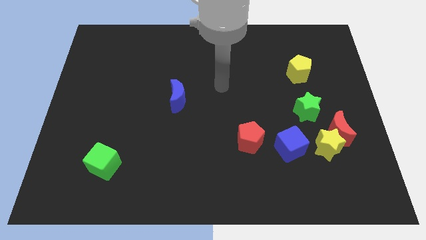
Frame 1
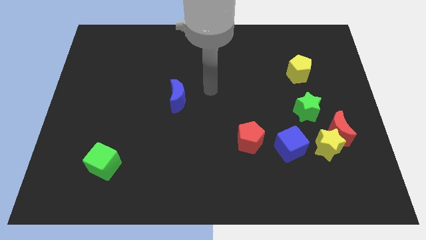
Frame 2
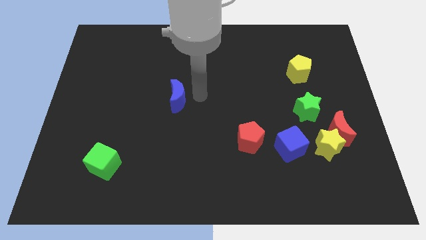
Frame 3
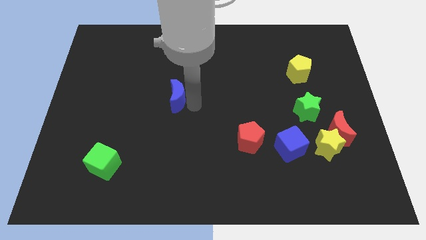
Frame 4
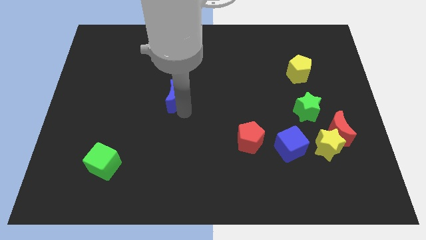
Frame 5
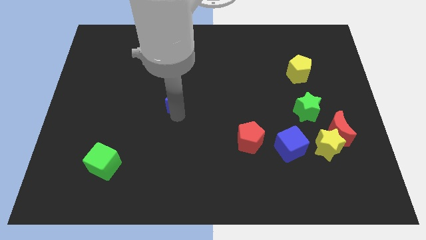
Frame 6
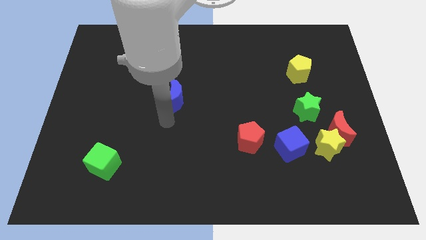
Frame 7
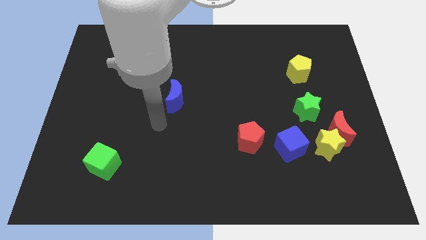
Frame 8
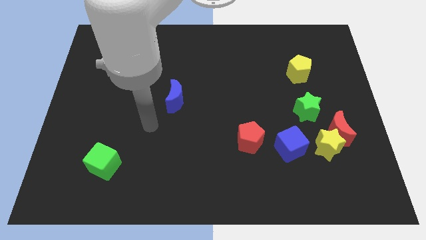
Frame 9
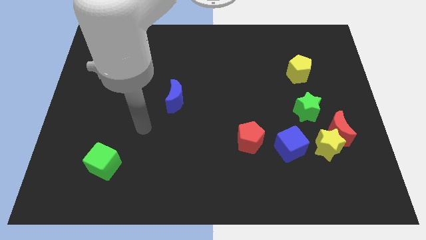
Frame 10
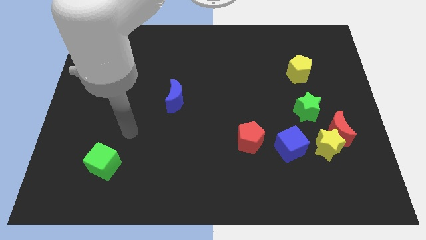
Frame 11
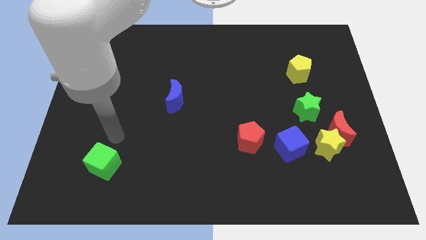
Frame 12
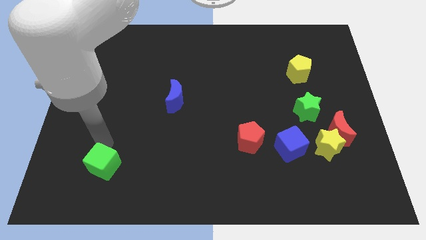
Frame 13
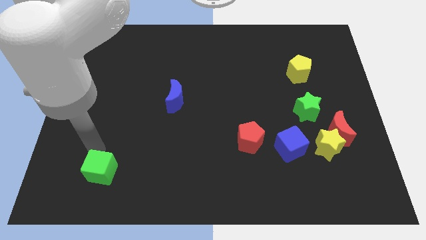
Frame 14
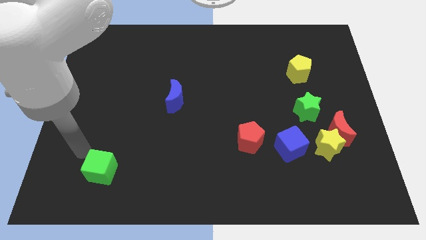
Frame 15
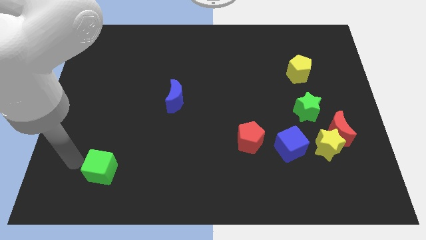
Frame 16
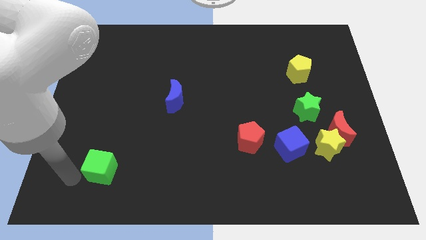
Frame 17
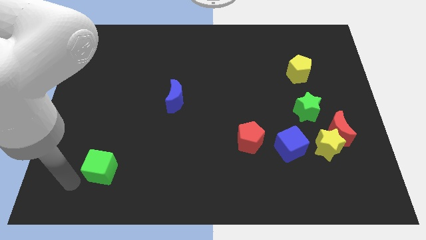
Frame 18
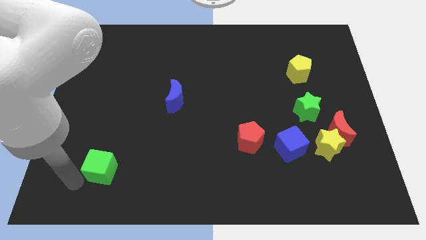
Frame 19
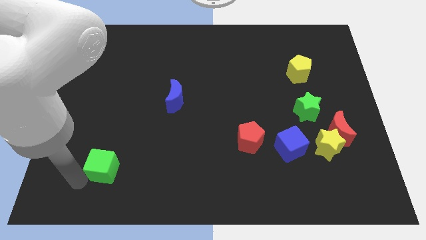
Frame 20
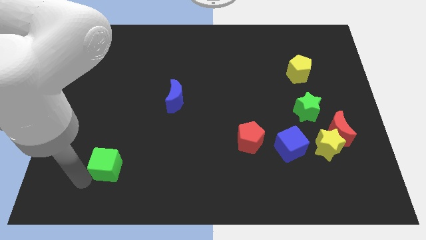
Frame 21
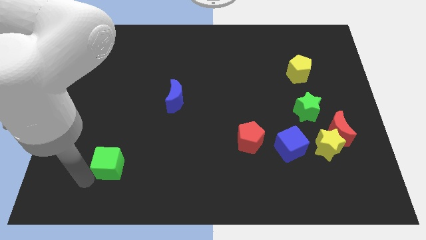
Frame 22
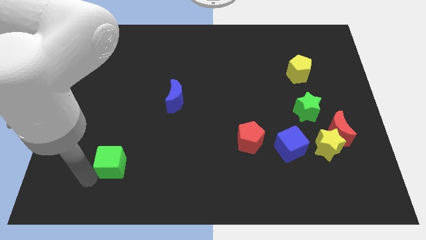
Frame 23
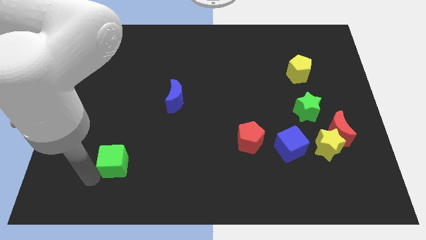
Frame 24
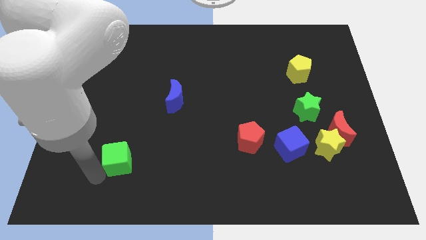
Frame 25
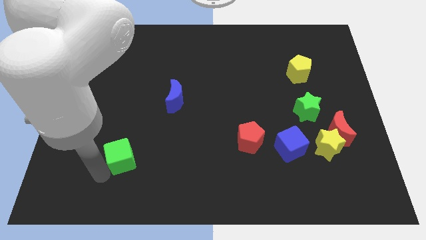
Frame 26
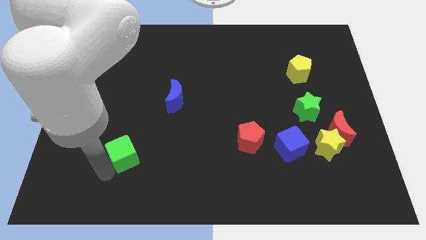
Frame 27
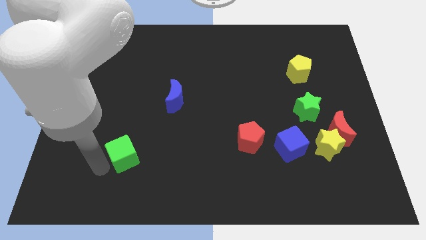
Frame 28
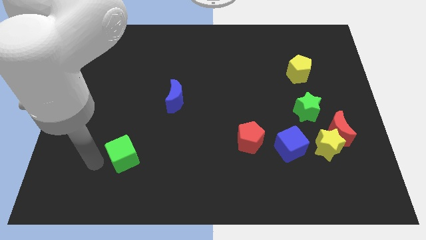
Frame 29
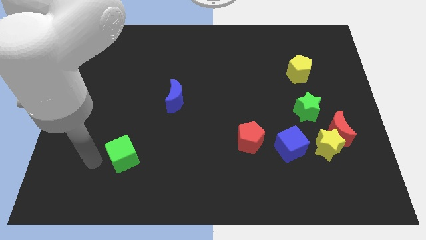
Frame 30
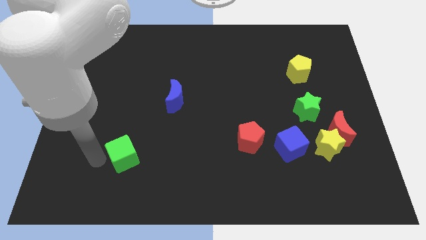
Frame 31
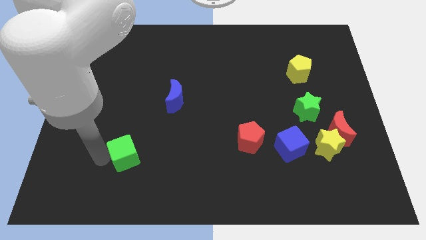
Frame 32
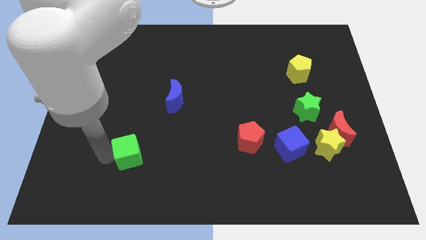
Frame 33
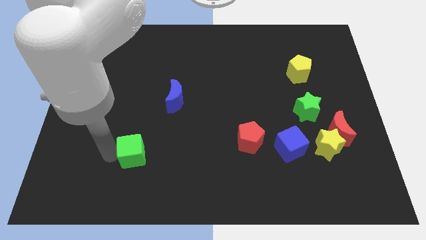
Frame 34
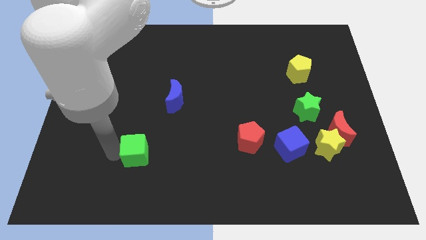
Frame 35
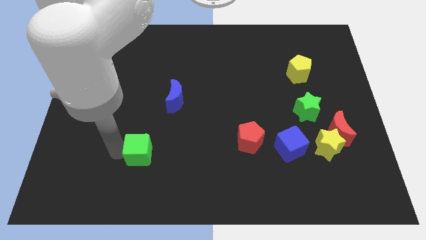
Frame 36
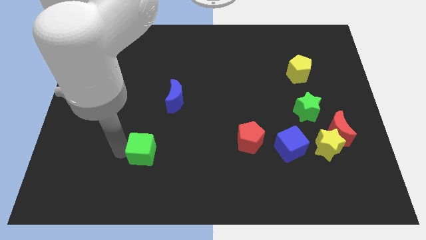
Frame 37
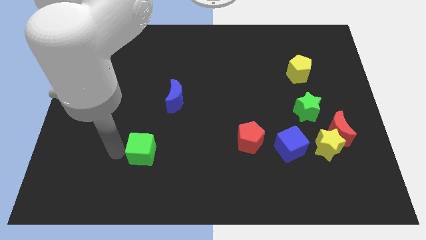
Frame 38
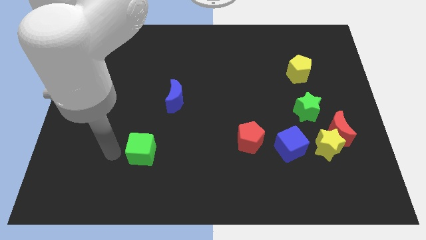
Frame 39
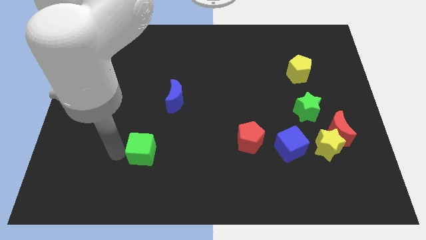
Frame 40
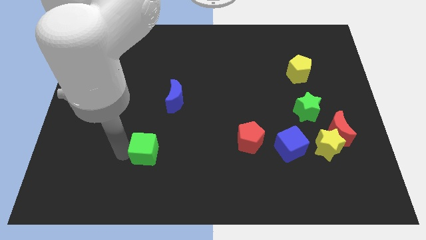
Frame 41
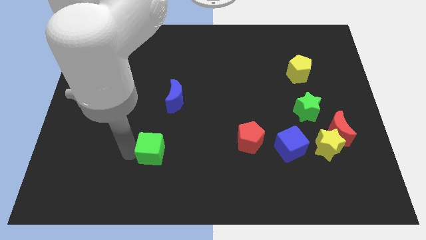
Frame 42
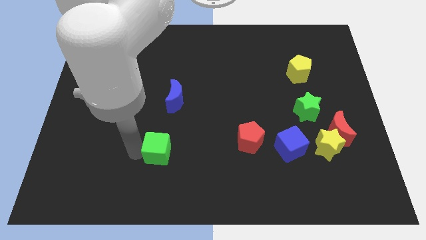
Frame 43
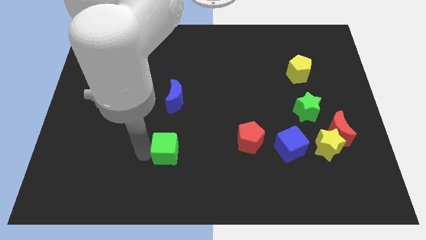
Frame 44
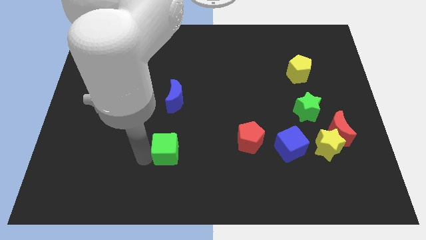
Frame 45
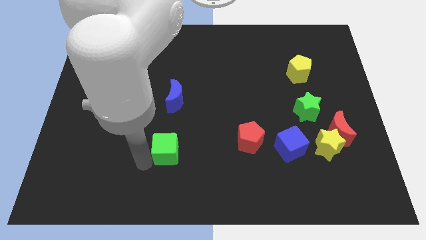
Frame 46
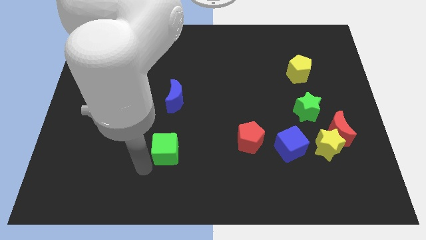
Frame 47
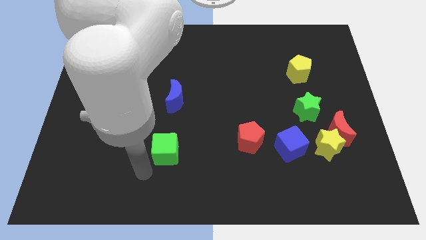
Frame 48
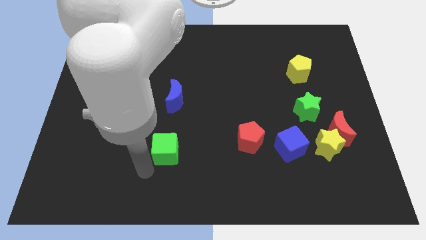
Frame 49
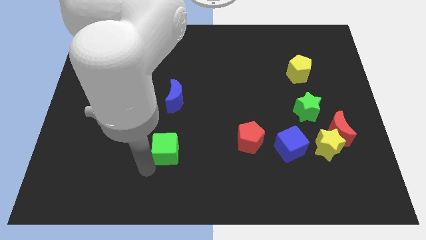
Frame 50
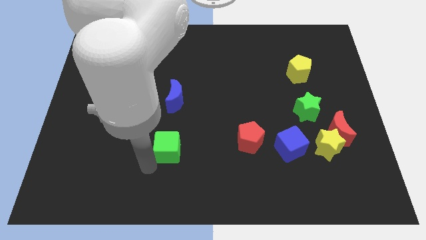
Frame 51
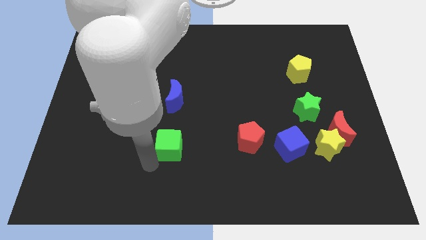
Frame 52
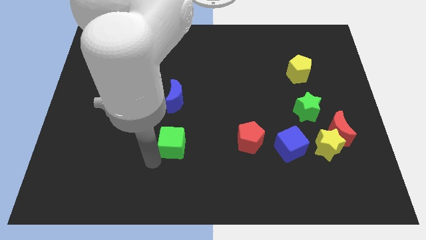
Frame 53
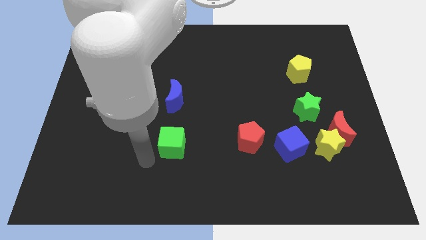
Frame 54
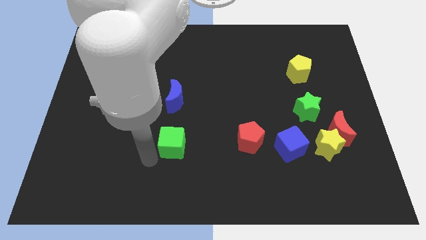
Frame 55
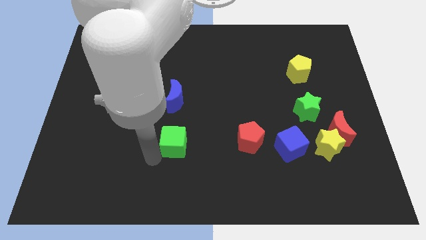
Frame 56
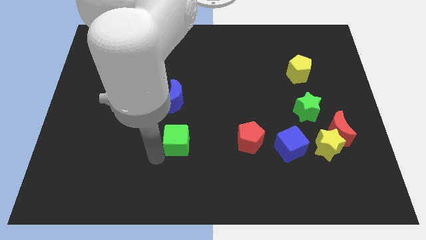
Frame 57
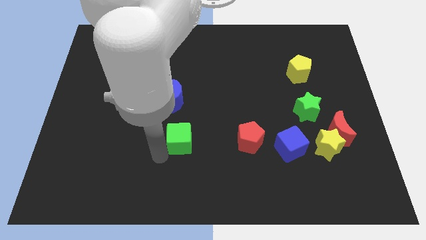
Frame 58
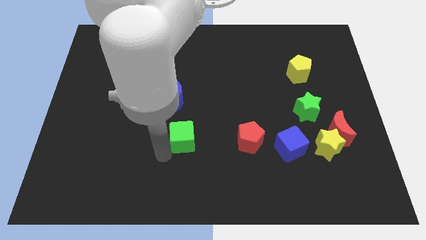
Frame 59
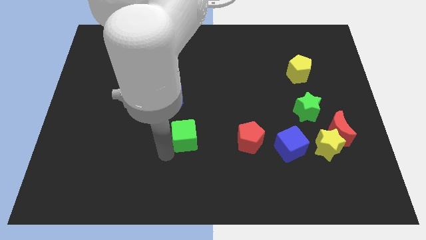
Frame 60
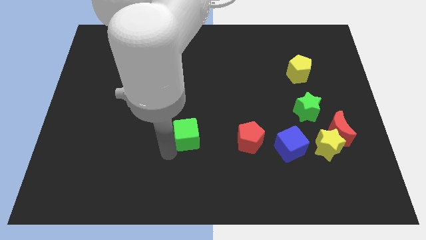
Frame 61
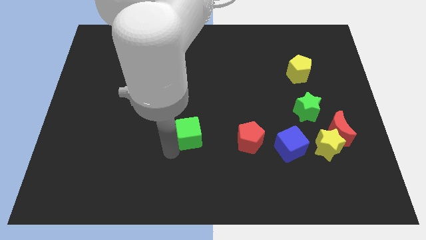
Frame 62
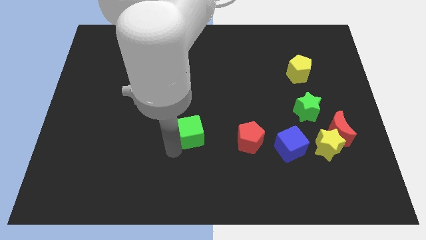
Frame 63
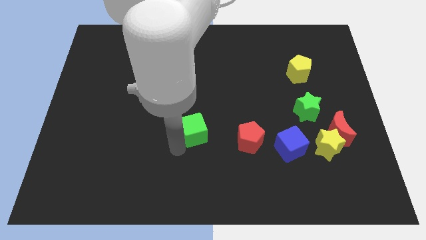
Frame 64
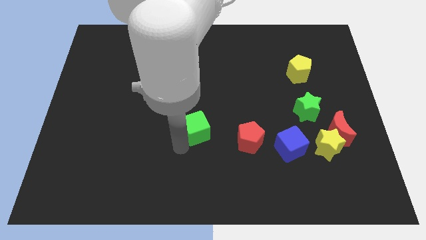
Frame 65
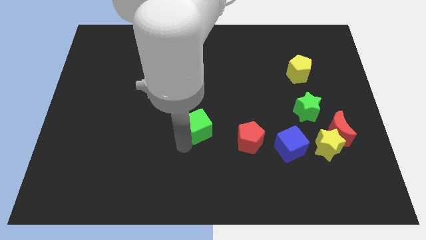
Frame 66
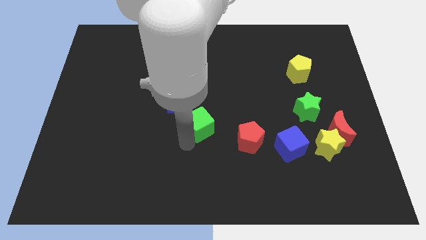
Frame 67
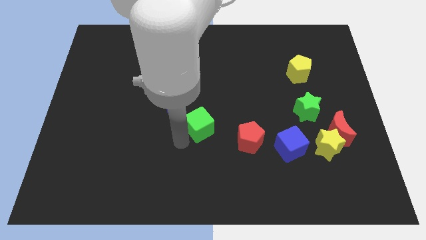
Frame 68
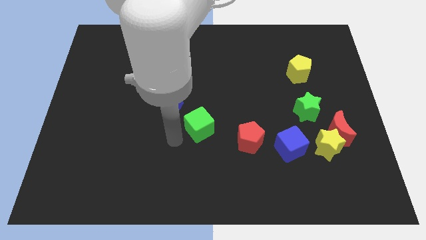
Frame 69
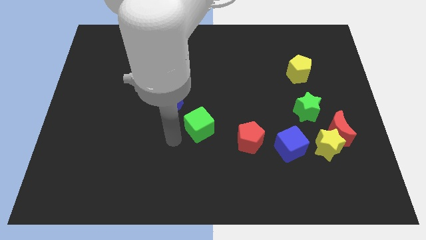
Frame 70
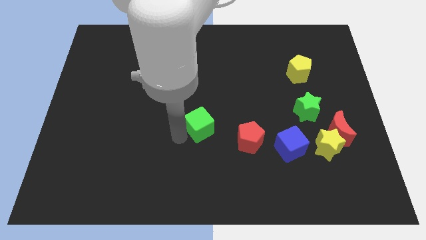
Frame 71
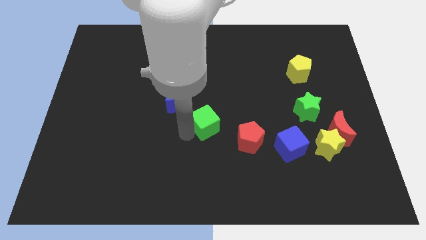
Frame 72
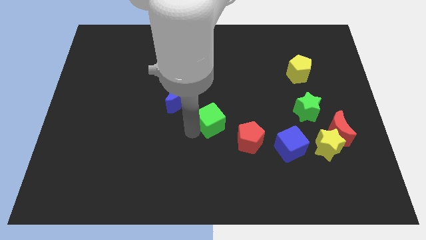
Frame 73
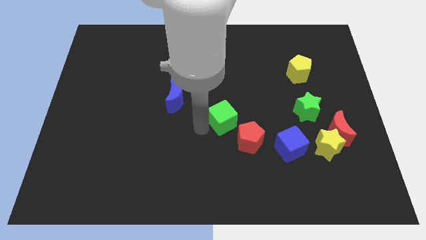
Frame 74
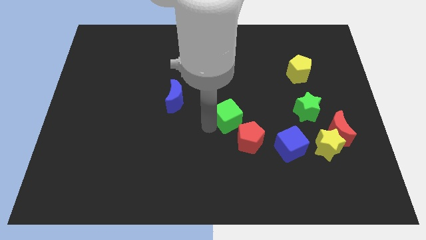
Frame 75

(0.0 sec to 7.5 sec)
move the green cube to the top side of the red pentagon
